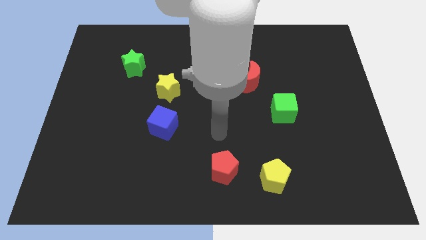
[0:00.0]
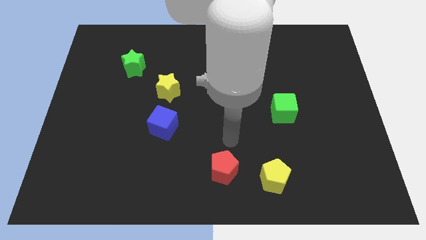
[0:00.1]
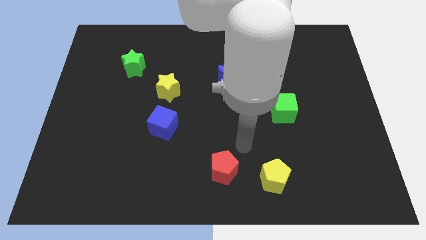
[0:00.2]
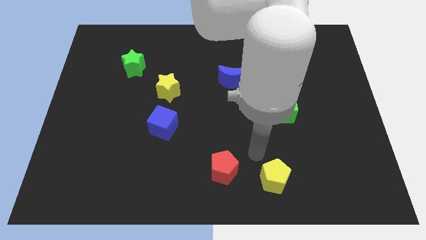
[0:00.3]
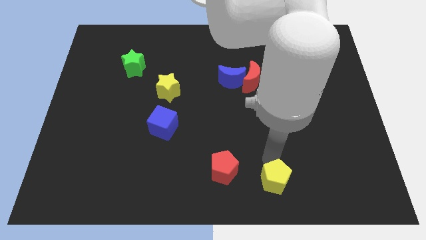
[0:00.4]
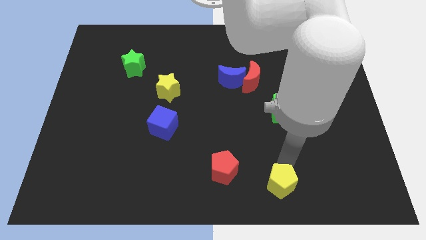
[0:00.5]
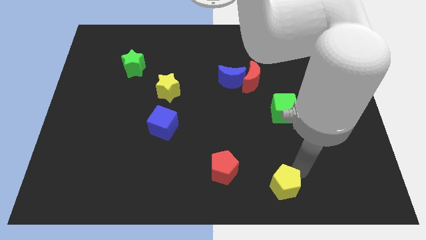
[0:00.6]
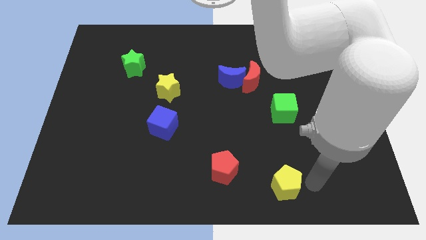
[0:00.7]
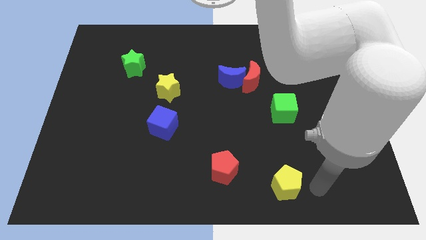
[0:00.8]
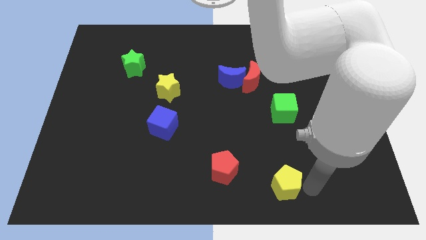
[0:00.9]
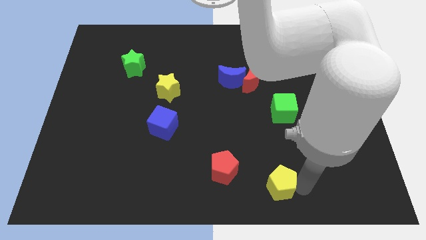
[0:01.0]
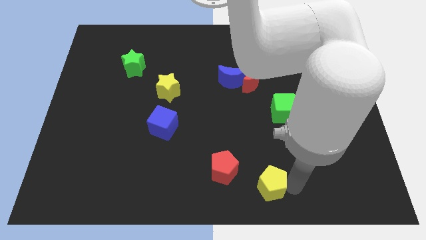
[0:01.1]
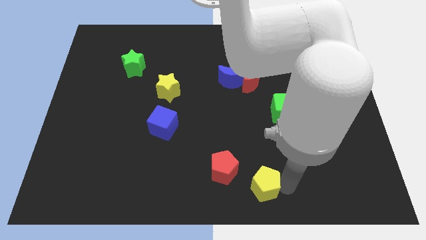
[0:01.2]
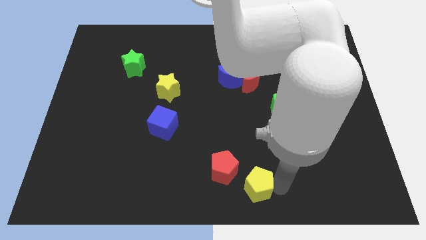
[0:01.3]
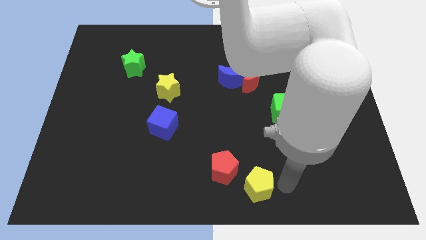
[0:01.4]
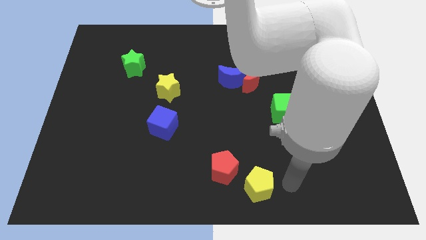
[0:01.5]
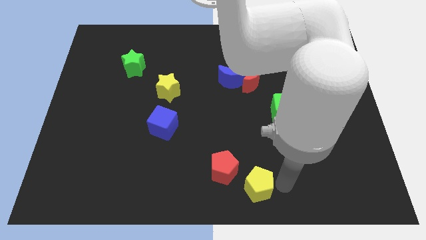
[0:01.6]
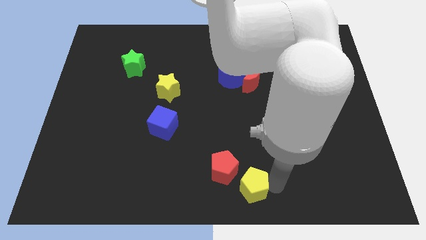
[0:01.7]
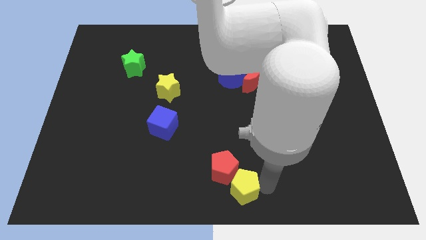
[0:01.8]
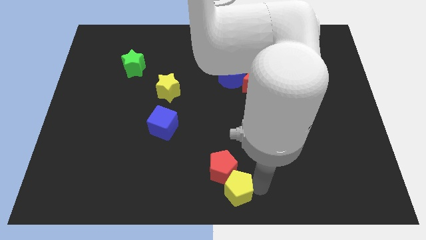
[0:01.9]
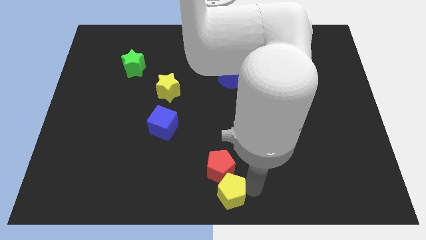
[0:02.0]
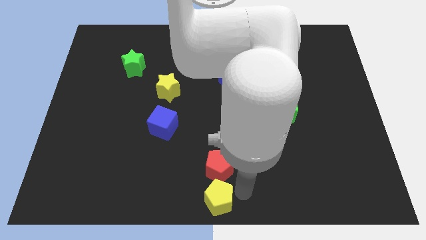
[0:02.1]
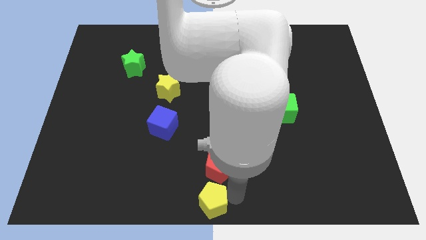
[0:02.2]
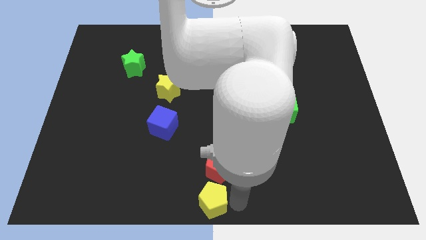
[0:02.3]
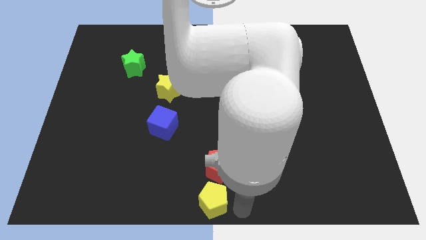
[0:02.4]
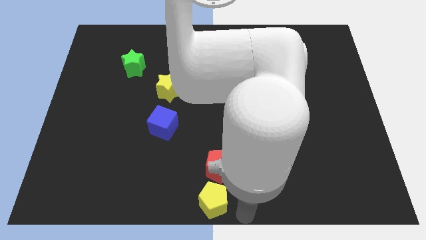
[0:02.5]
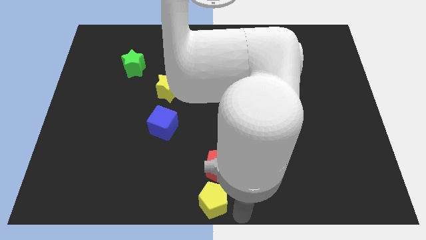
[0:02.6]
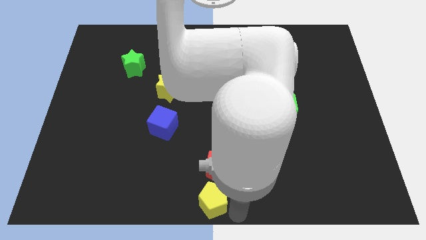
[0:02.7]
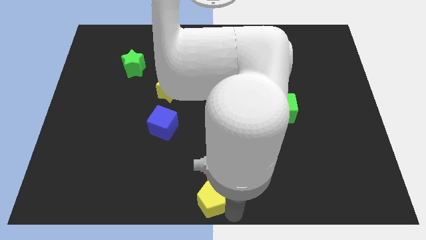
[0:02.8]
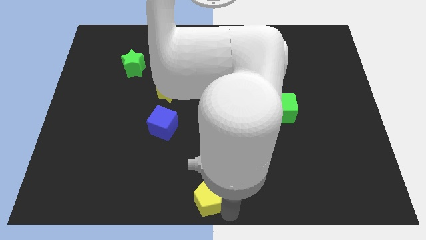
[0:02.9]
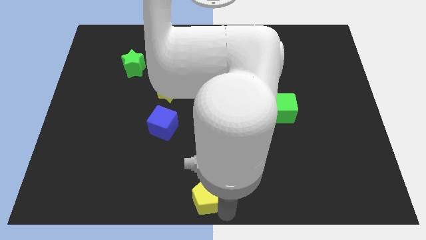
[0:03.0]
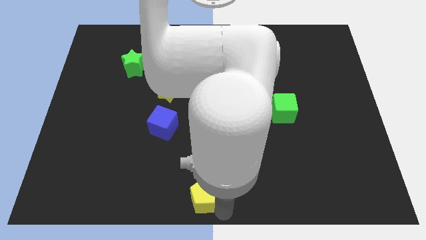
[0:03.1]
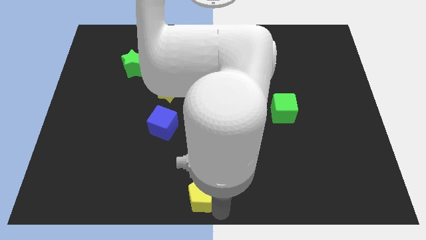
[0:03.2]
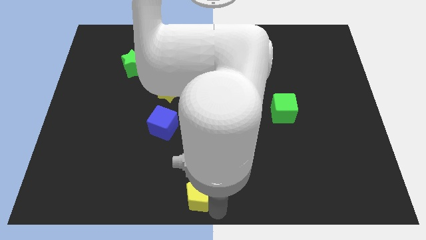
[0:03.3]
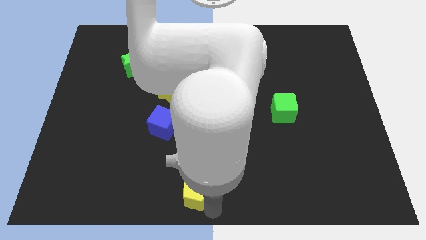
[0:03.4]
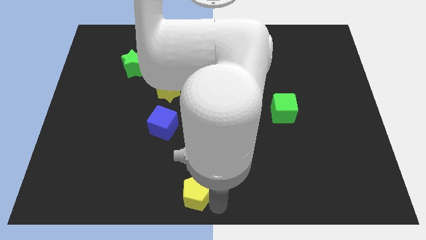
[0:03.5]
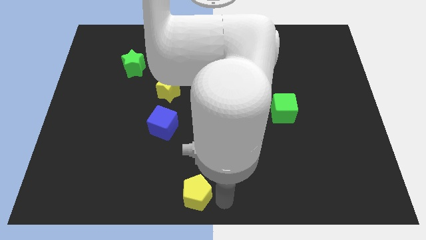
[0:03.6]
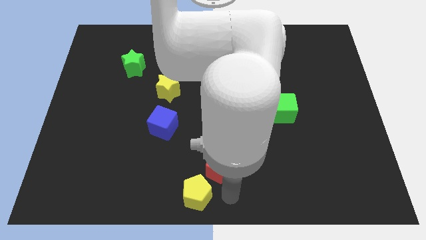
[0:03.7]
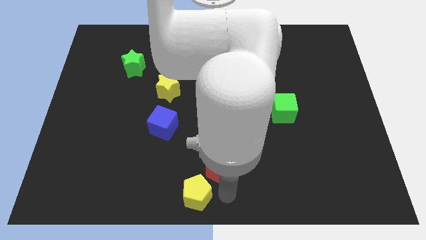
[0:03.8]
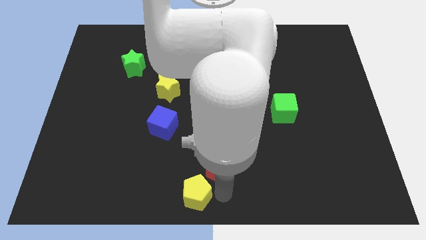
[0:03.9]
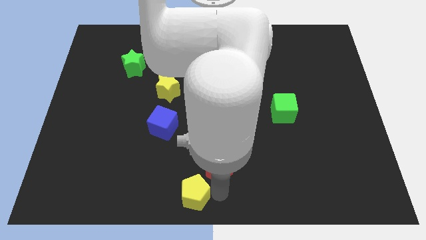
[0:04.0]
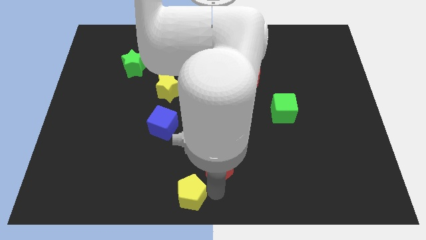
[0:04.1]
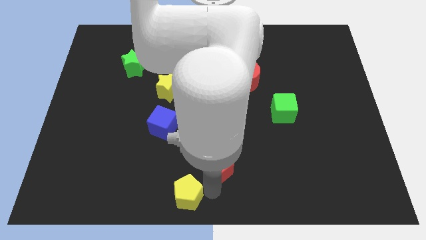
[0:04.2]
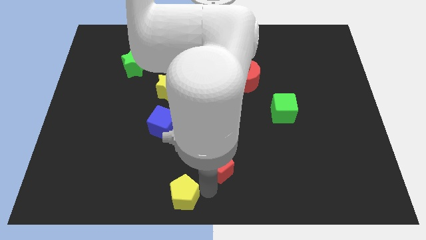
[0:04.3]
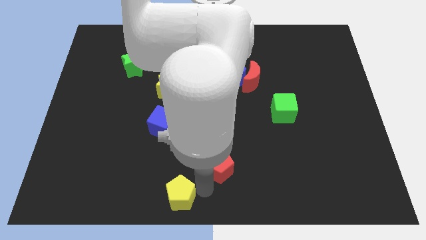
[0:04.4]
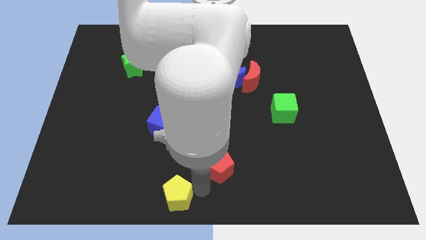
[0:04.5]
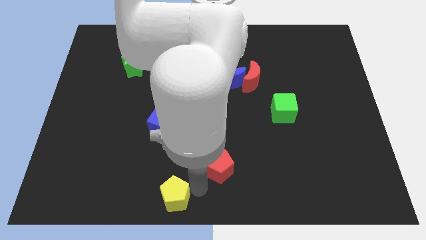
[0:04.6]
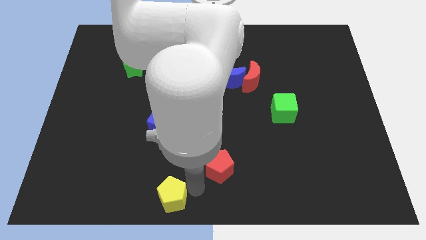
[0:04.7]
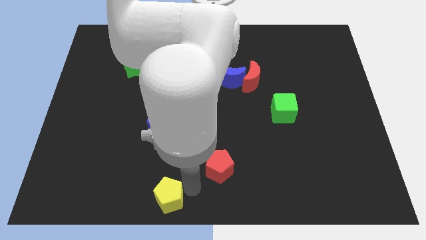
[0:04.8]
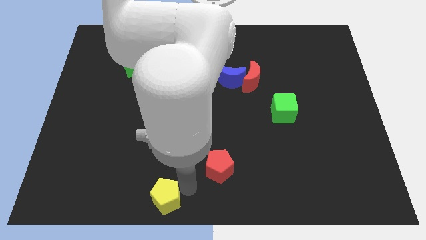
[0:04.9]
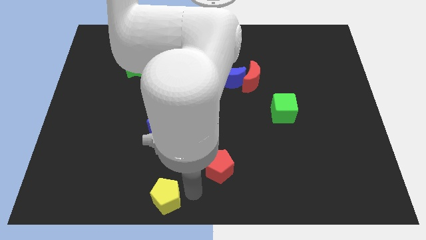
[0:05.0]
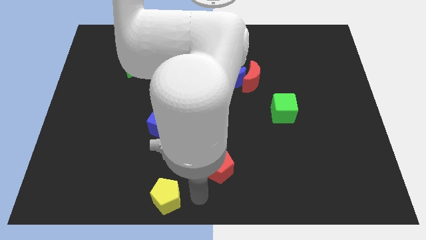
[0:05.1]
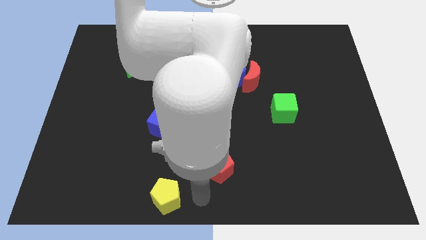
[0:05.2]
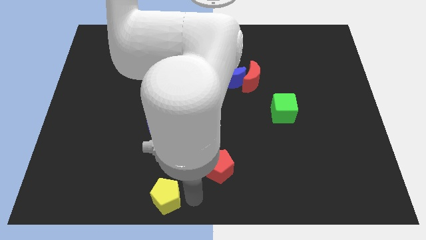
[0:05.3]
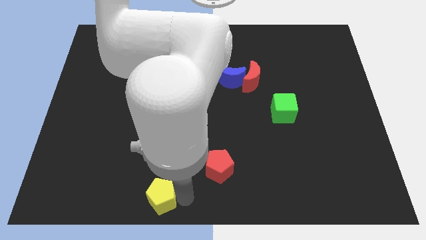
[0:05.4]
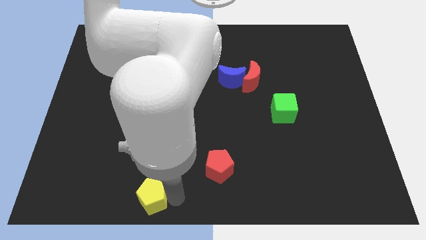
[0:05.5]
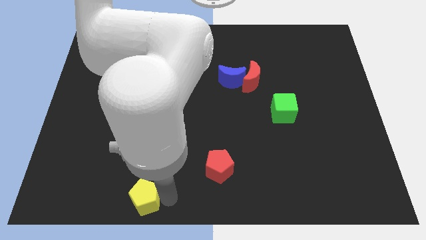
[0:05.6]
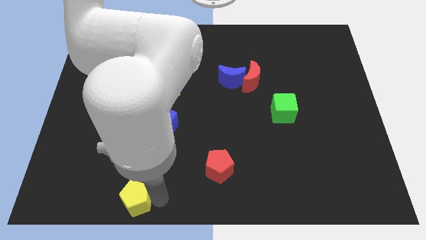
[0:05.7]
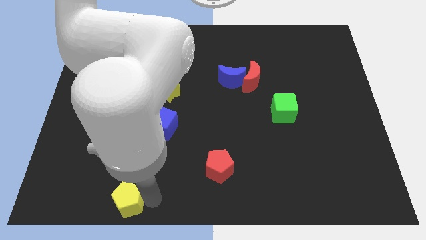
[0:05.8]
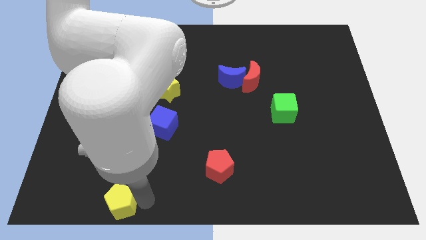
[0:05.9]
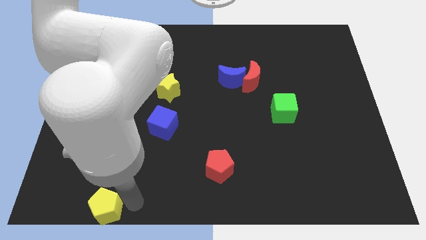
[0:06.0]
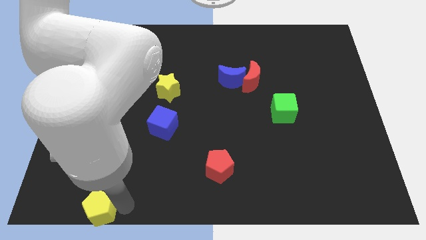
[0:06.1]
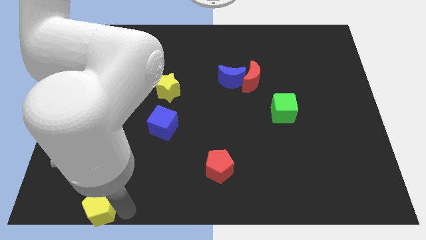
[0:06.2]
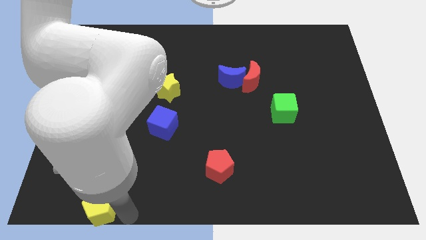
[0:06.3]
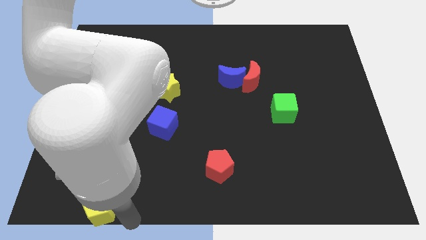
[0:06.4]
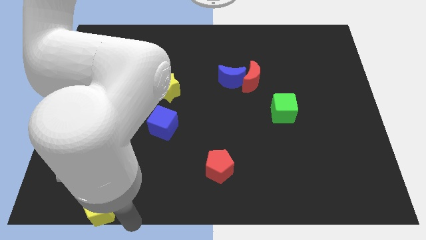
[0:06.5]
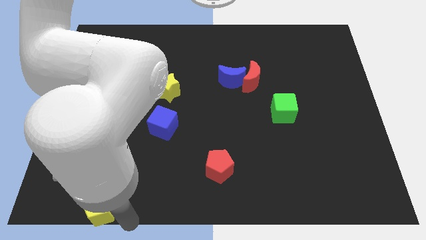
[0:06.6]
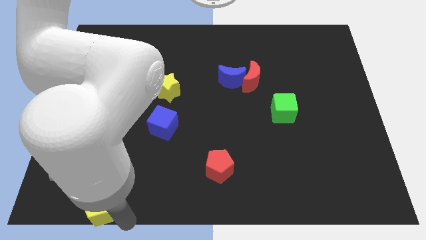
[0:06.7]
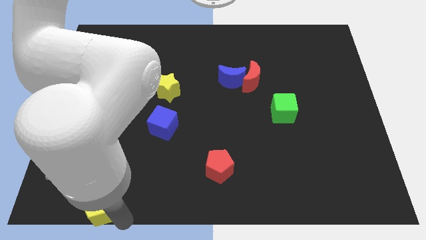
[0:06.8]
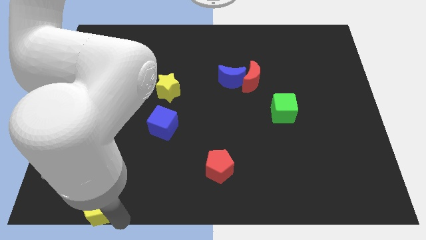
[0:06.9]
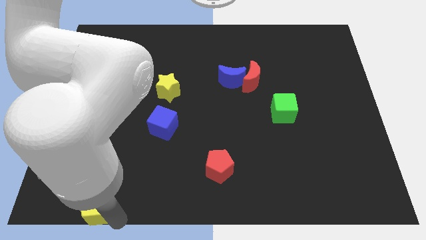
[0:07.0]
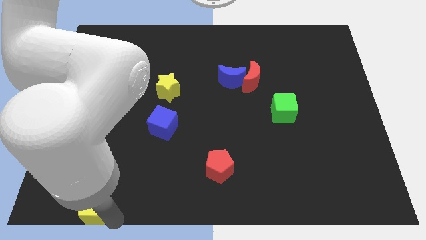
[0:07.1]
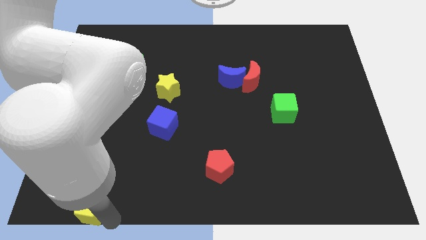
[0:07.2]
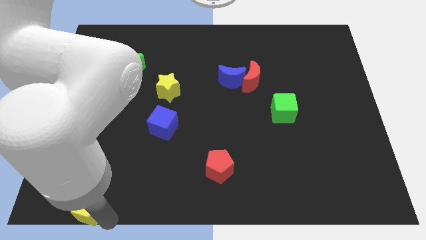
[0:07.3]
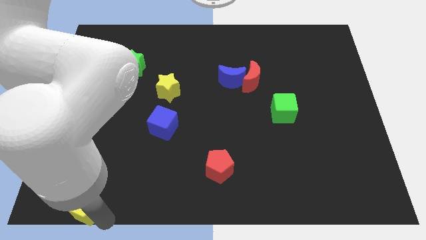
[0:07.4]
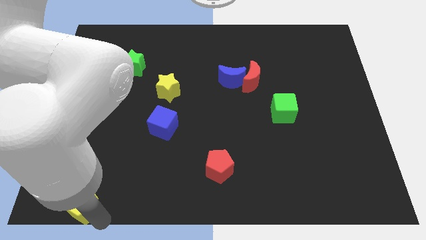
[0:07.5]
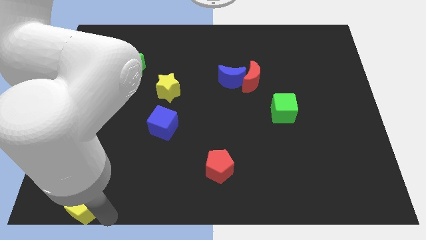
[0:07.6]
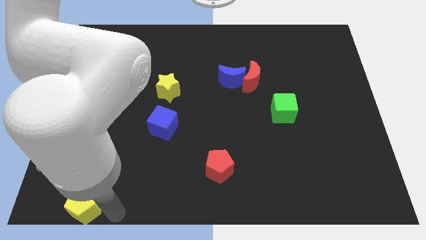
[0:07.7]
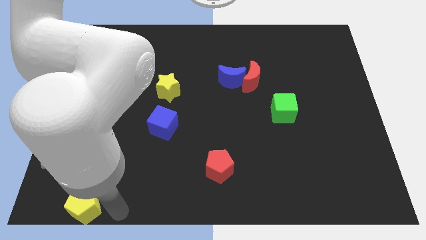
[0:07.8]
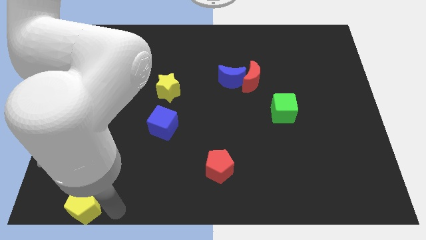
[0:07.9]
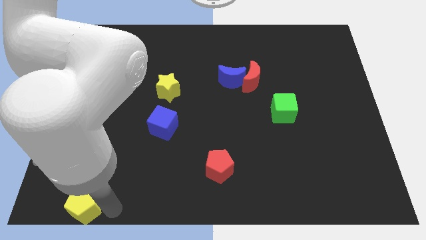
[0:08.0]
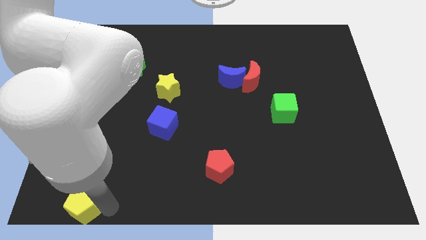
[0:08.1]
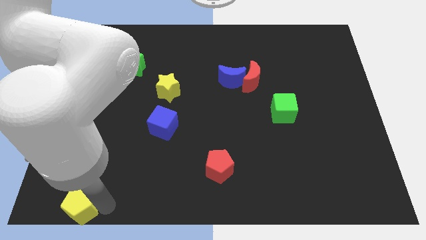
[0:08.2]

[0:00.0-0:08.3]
put the yellow pentagon to the bottom left corner
